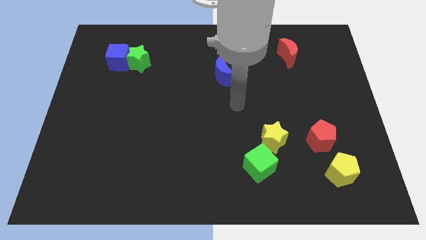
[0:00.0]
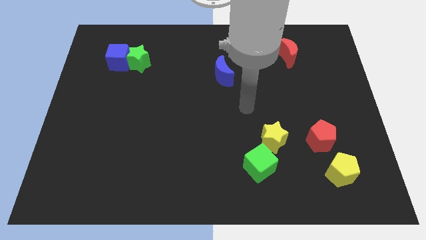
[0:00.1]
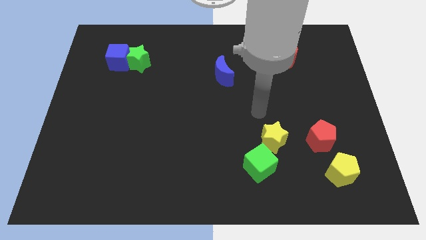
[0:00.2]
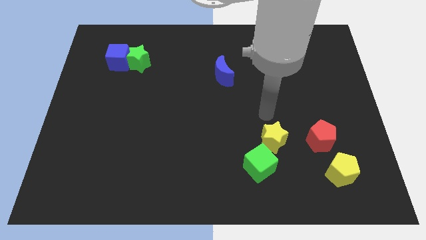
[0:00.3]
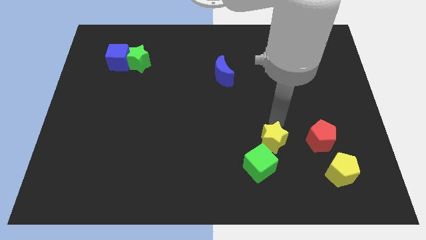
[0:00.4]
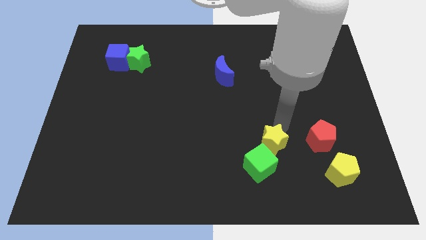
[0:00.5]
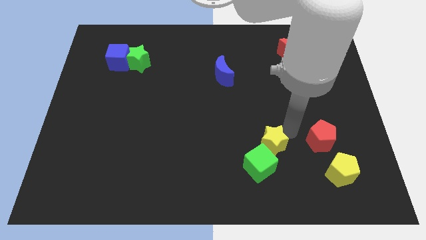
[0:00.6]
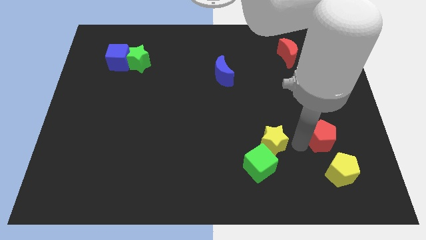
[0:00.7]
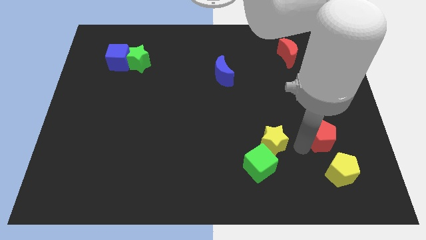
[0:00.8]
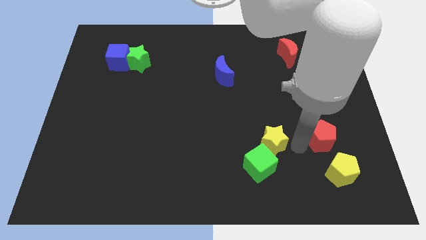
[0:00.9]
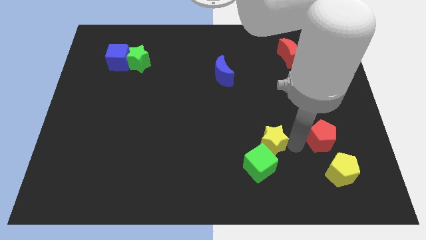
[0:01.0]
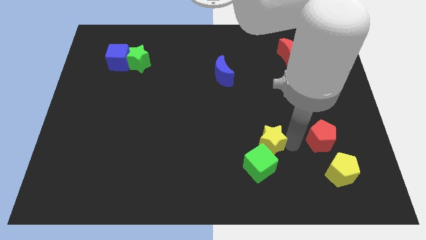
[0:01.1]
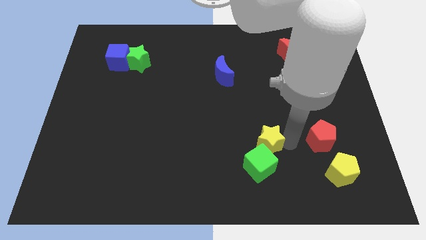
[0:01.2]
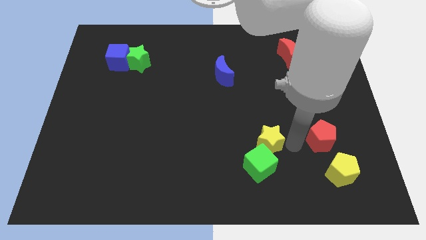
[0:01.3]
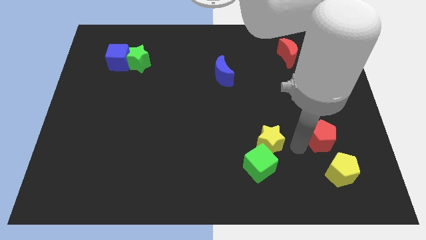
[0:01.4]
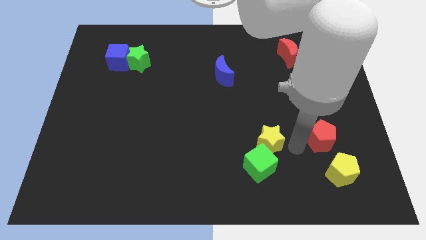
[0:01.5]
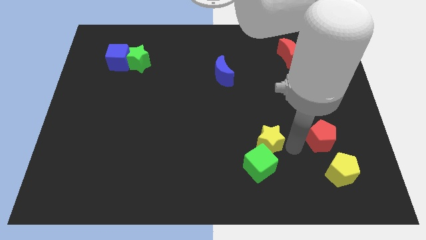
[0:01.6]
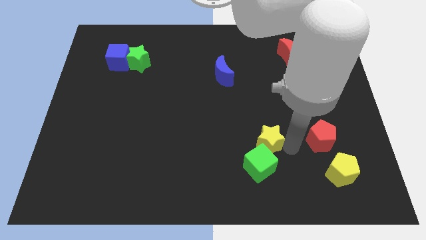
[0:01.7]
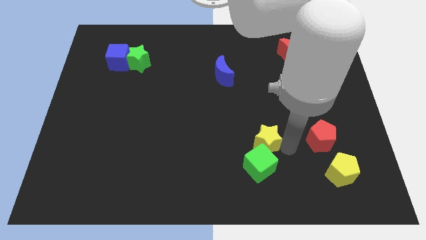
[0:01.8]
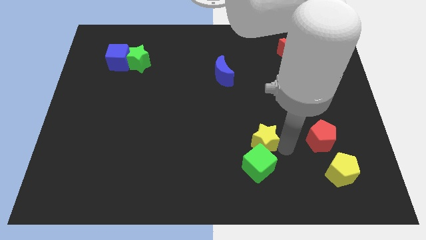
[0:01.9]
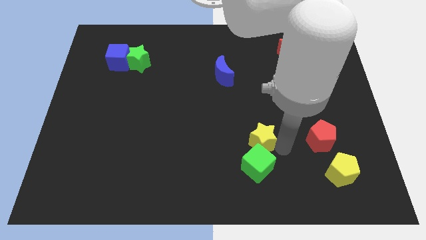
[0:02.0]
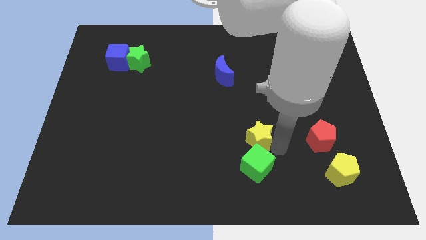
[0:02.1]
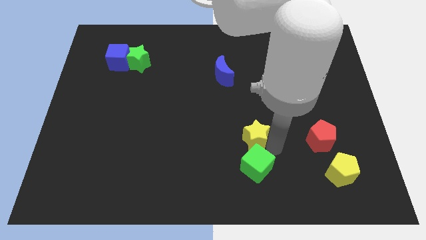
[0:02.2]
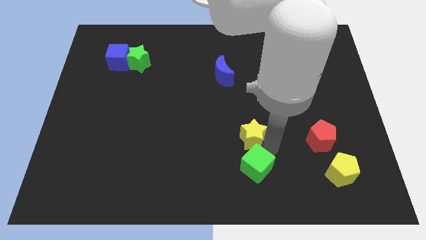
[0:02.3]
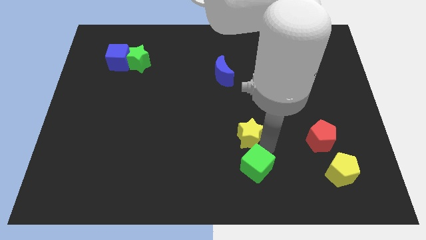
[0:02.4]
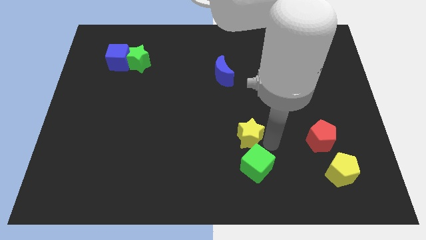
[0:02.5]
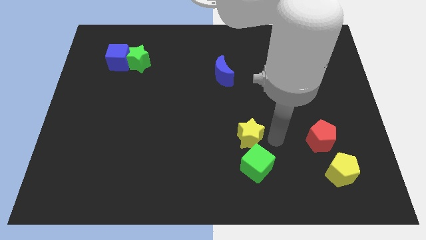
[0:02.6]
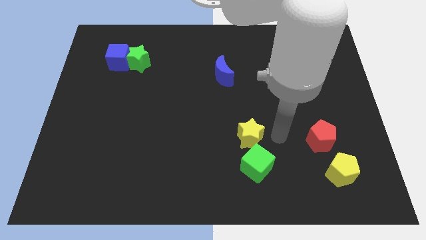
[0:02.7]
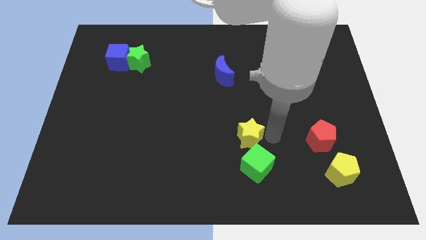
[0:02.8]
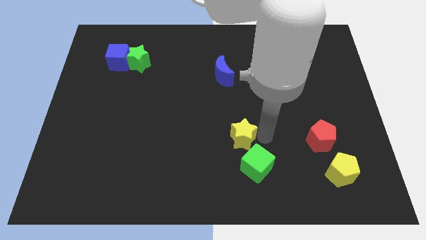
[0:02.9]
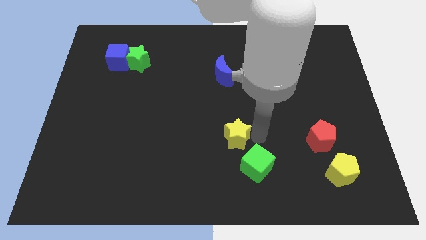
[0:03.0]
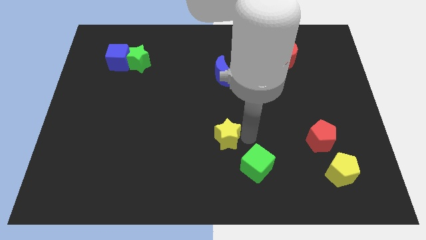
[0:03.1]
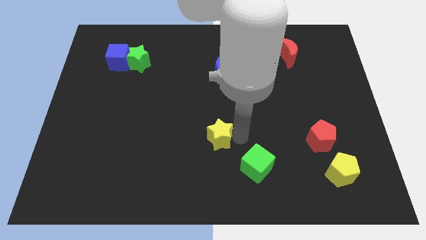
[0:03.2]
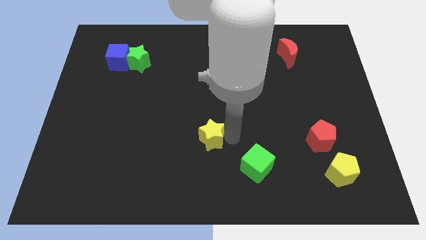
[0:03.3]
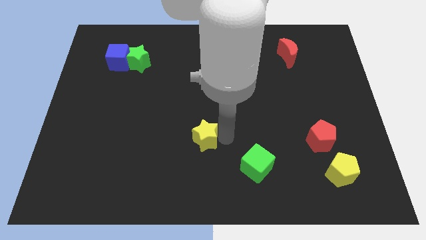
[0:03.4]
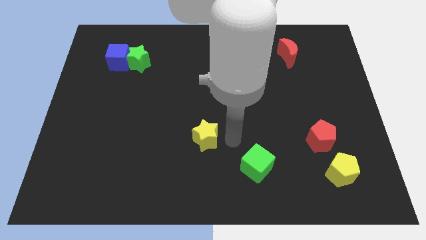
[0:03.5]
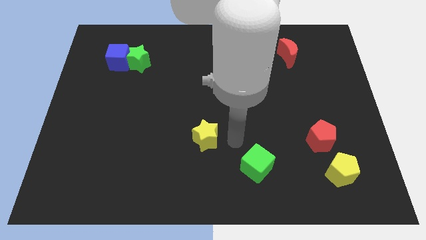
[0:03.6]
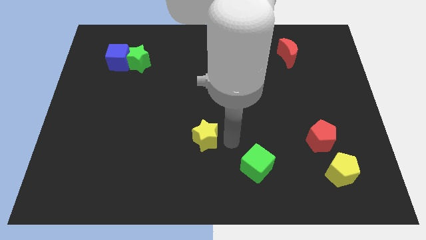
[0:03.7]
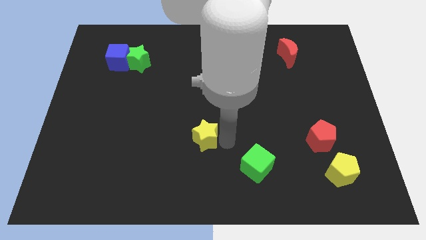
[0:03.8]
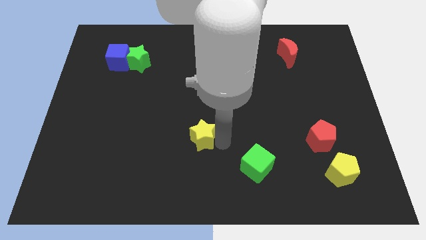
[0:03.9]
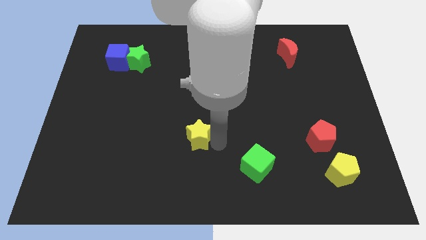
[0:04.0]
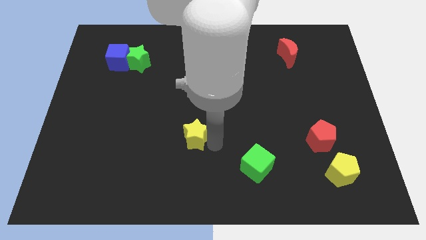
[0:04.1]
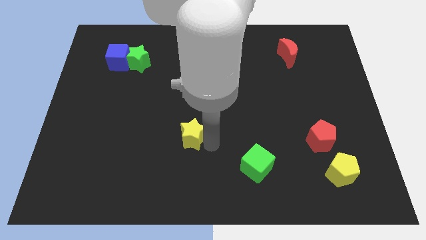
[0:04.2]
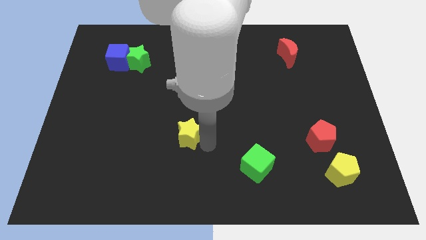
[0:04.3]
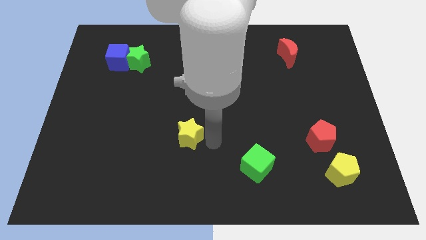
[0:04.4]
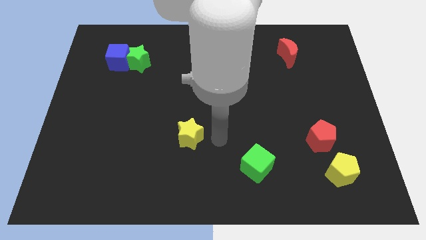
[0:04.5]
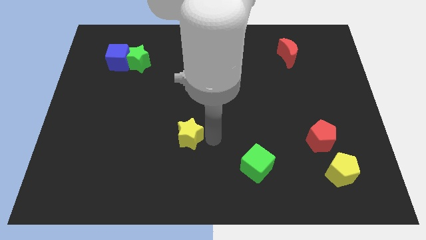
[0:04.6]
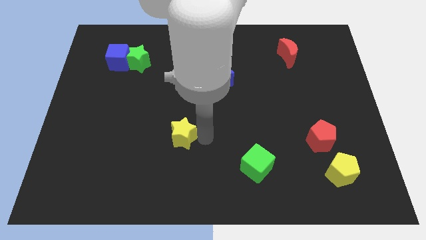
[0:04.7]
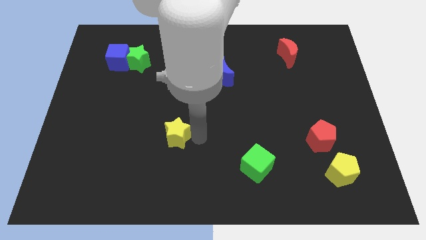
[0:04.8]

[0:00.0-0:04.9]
slide the yellow star left

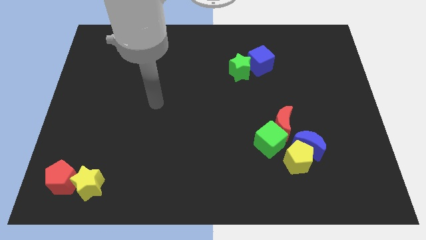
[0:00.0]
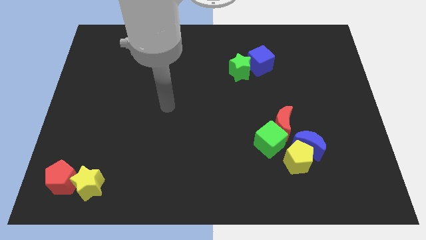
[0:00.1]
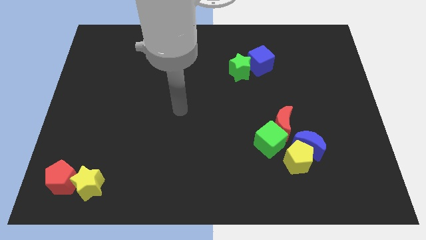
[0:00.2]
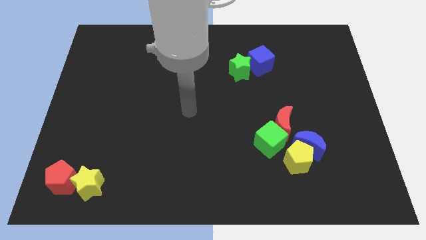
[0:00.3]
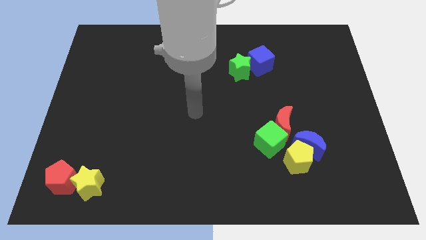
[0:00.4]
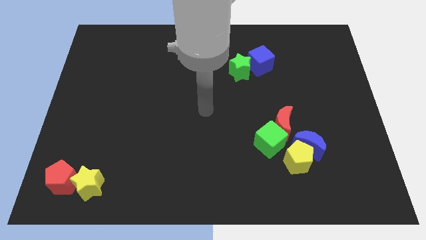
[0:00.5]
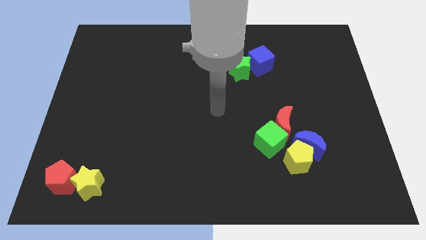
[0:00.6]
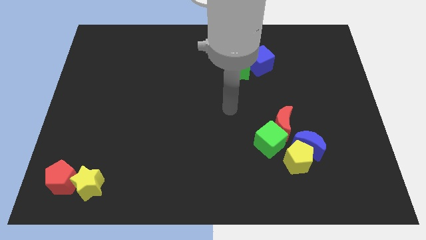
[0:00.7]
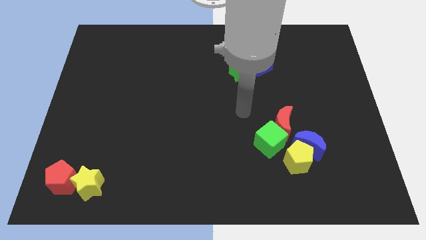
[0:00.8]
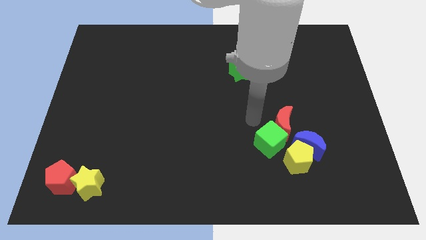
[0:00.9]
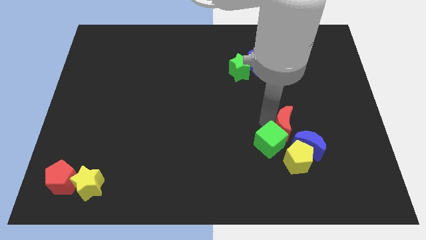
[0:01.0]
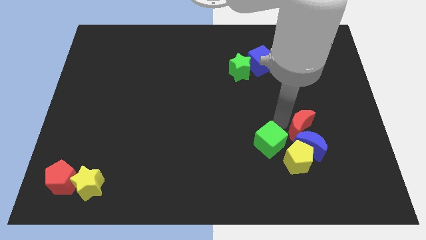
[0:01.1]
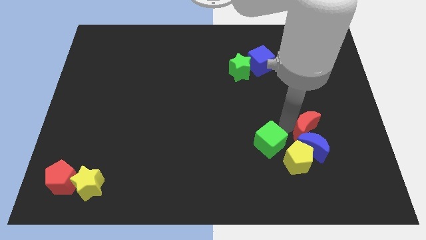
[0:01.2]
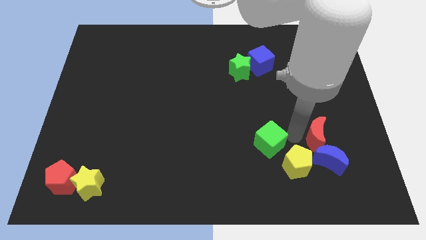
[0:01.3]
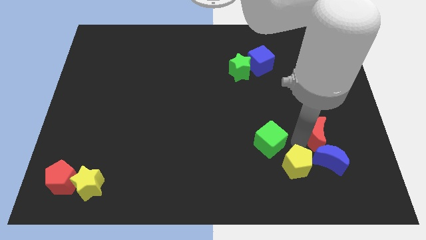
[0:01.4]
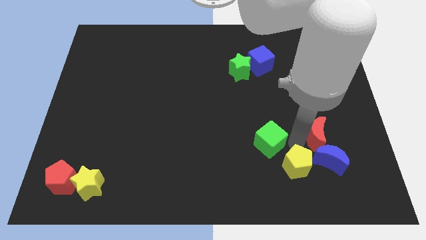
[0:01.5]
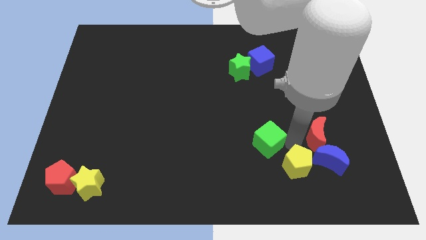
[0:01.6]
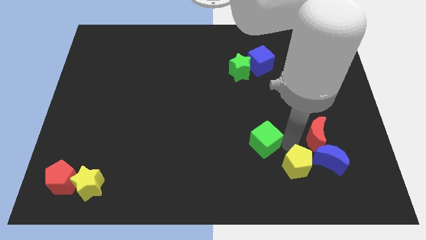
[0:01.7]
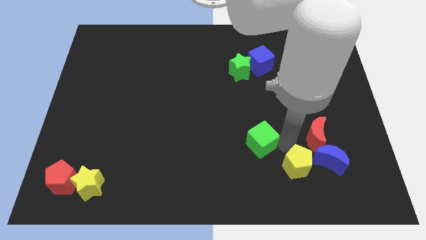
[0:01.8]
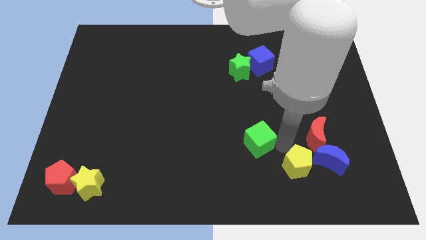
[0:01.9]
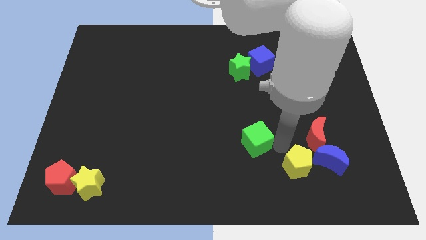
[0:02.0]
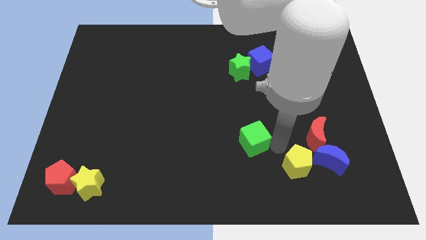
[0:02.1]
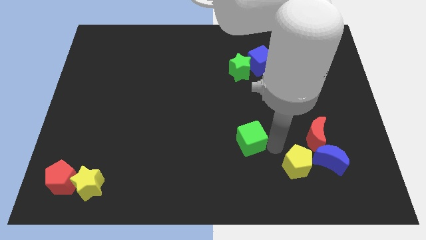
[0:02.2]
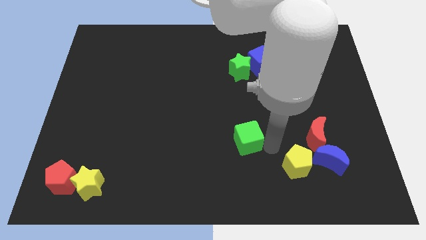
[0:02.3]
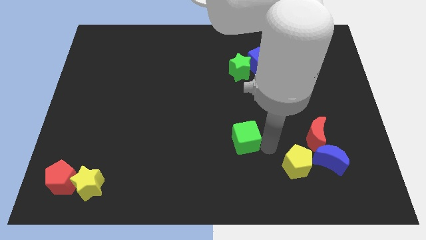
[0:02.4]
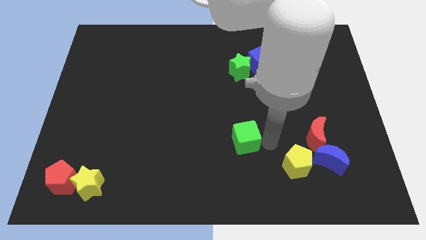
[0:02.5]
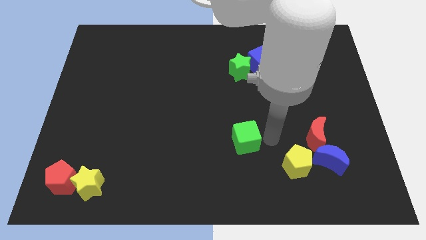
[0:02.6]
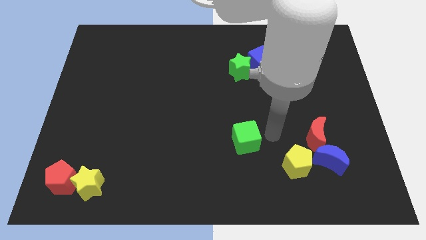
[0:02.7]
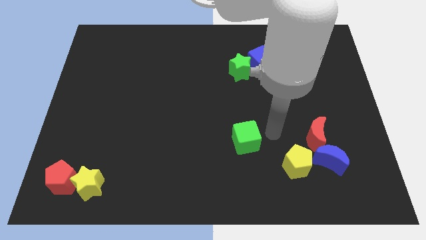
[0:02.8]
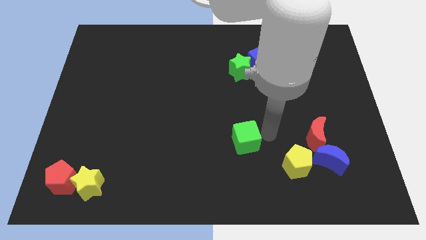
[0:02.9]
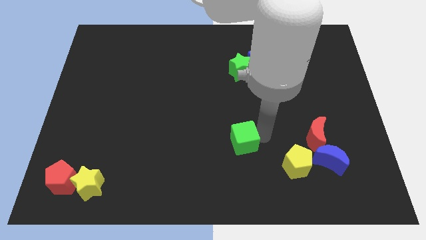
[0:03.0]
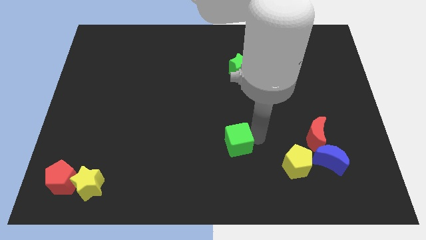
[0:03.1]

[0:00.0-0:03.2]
slide the green cube to the left a little bit
